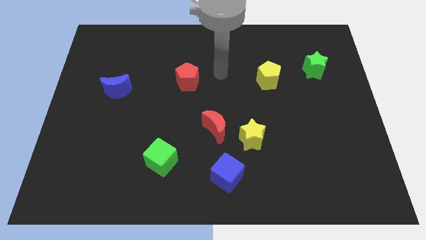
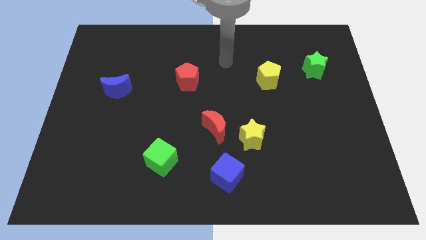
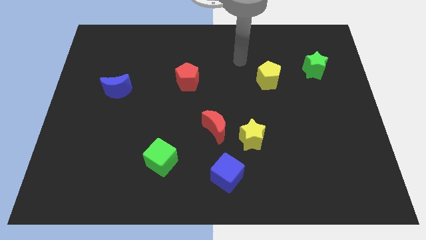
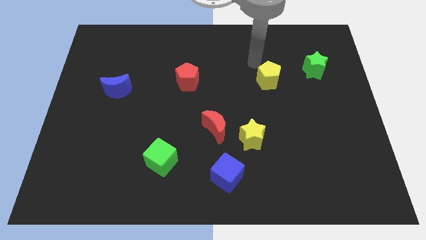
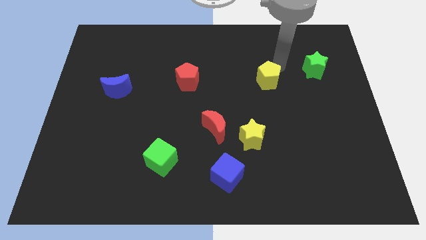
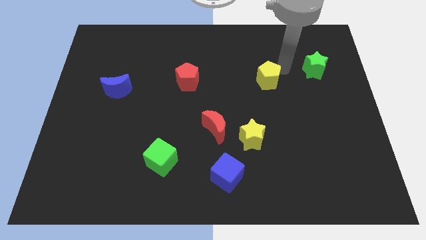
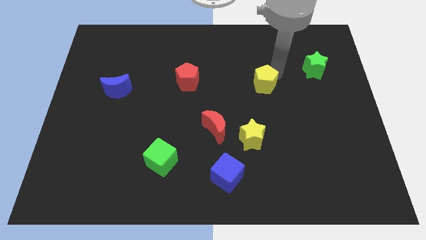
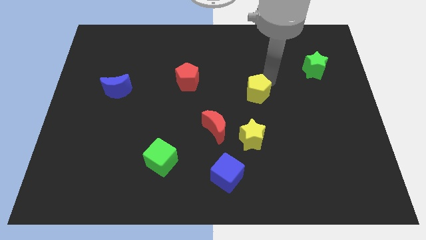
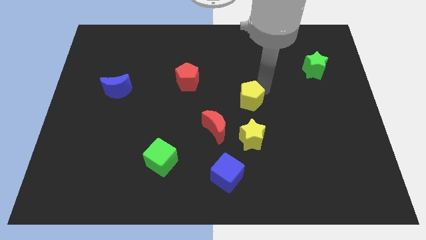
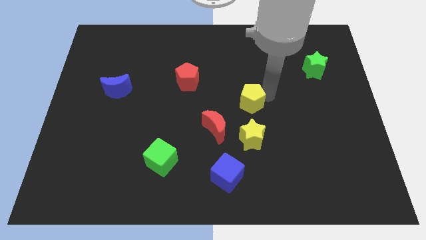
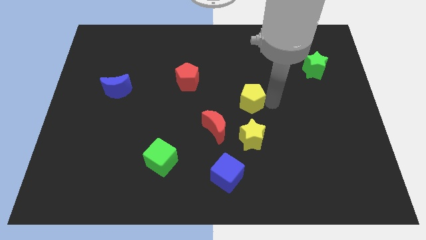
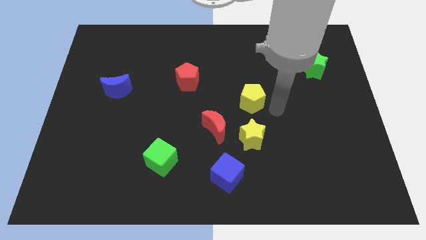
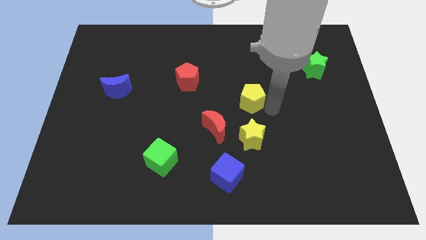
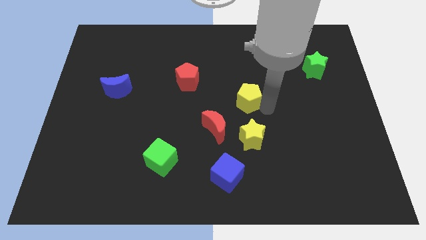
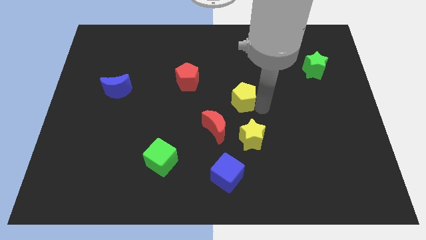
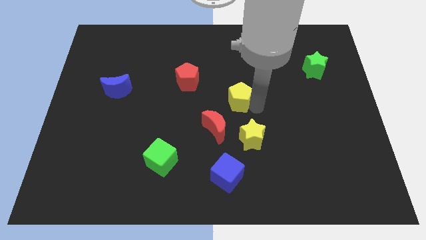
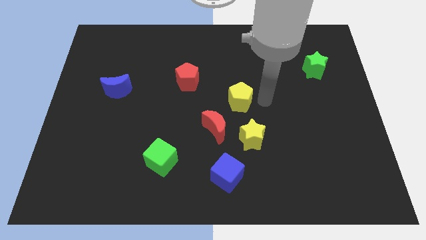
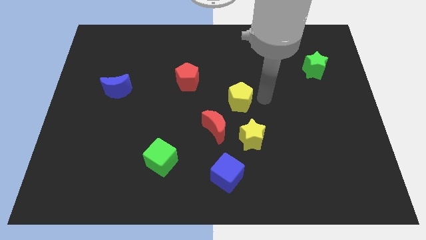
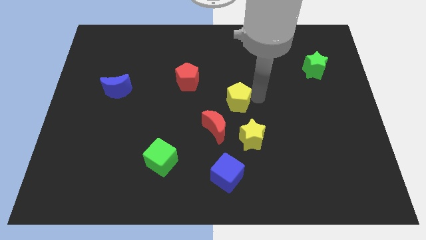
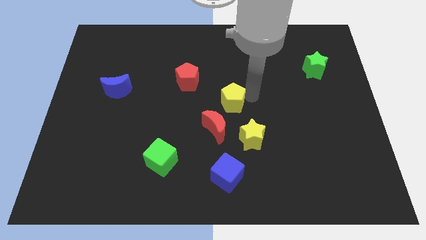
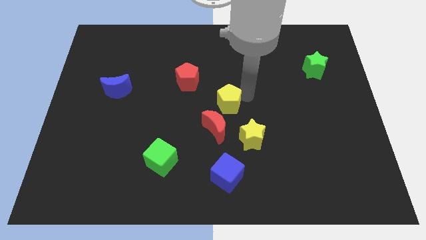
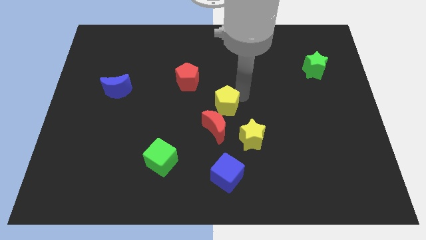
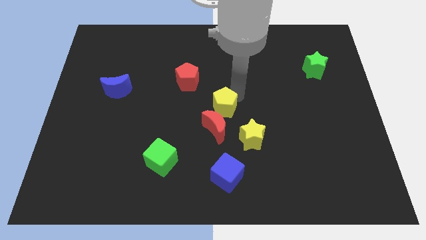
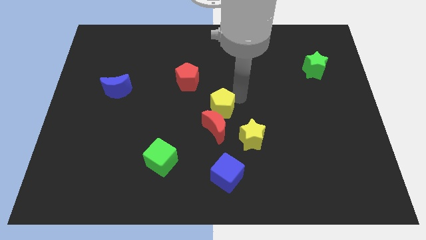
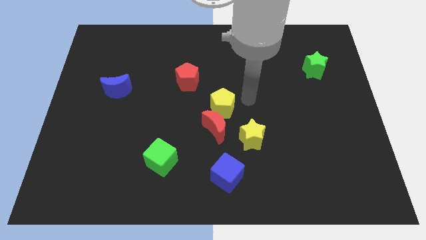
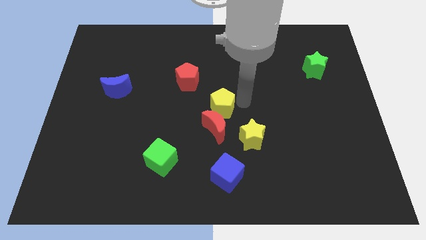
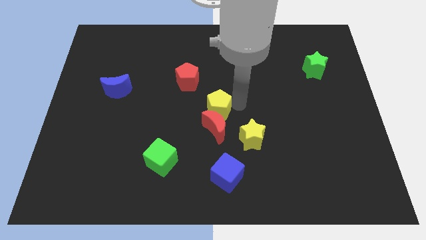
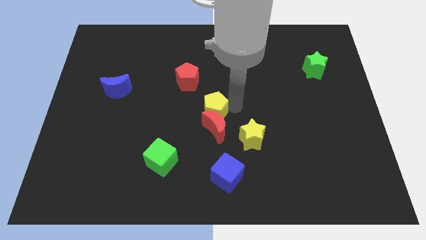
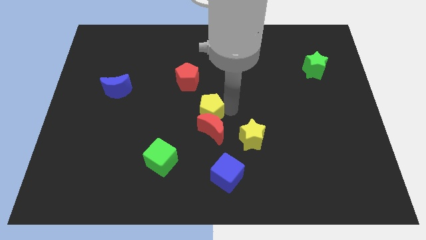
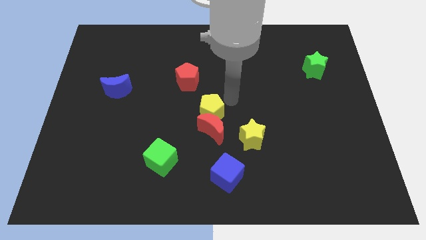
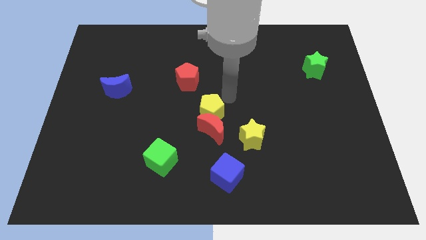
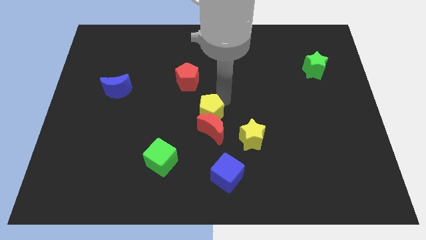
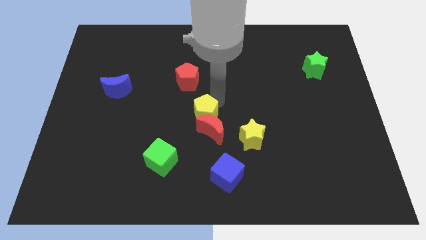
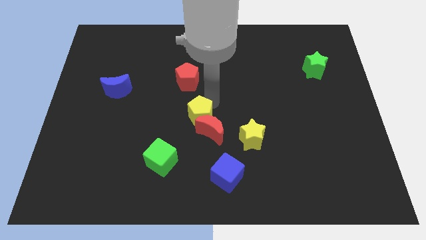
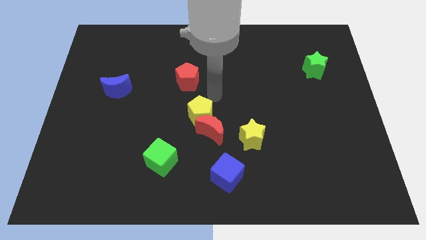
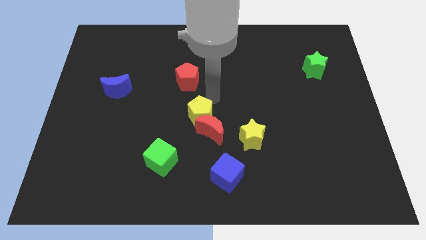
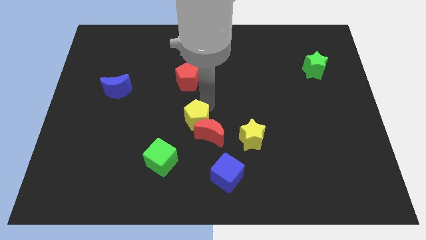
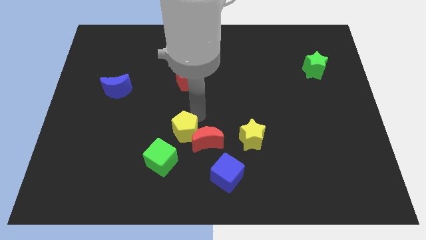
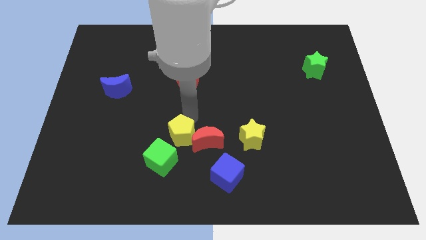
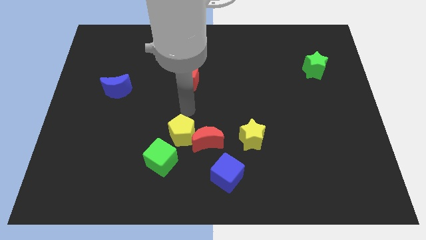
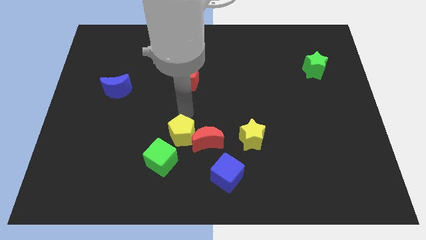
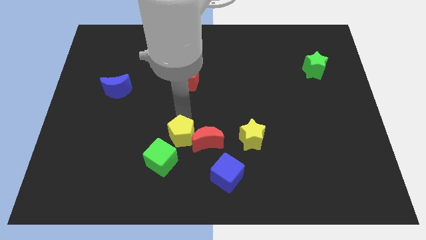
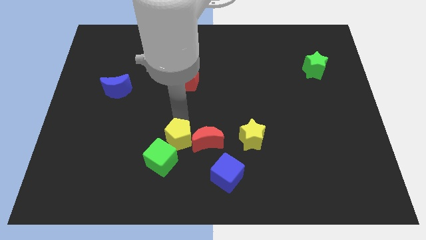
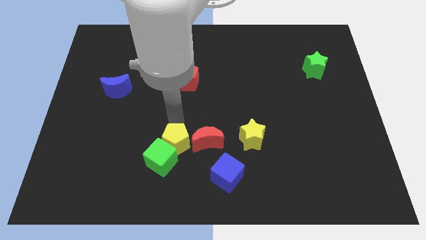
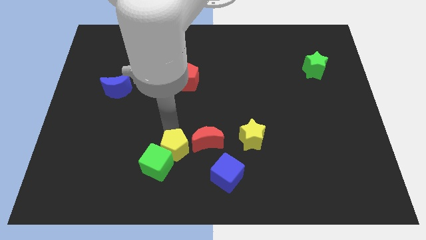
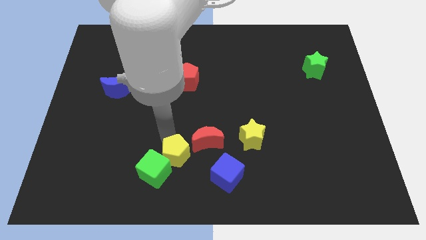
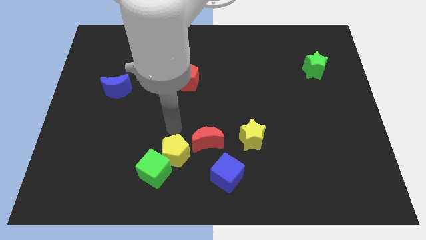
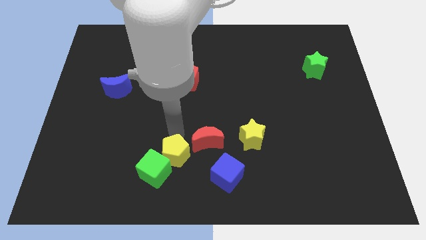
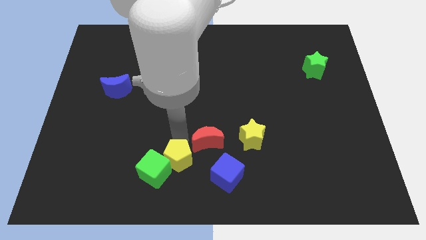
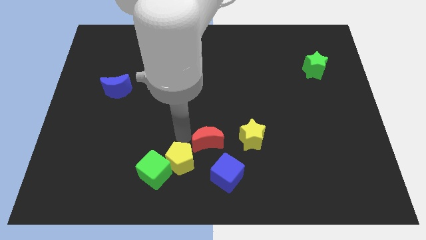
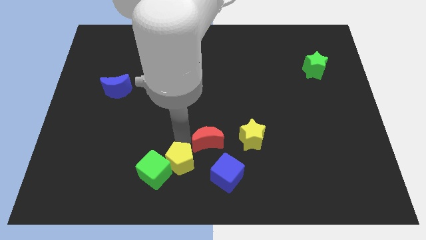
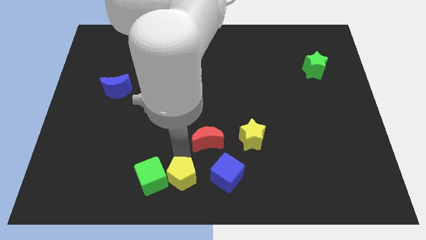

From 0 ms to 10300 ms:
slide the yellow pentagon to the bottom right side of the green cube

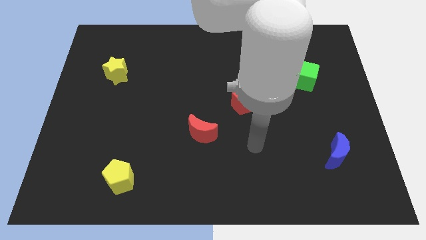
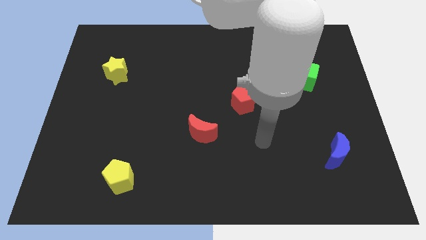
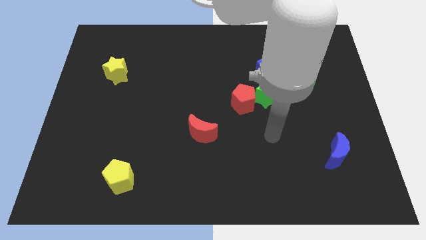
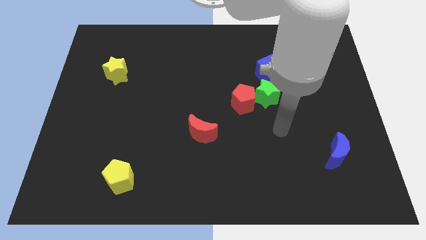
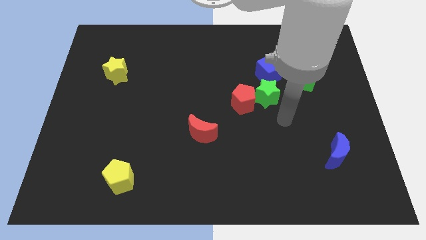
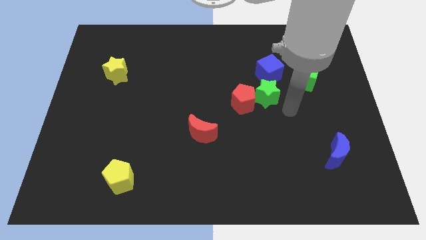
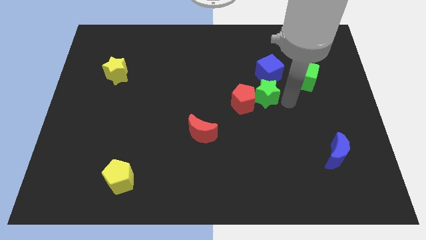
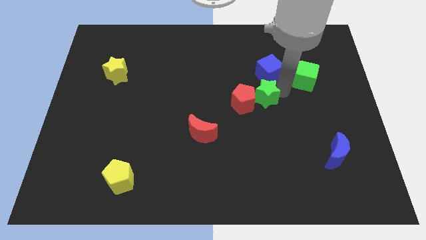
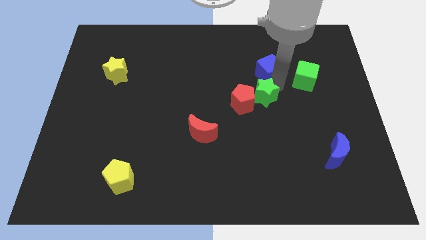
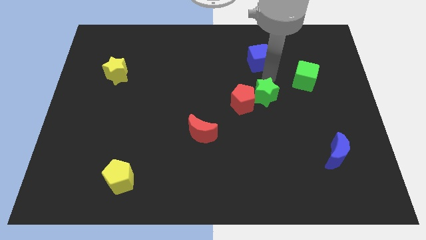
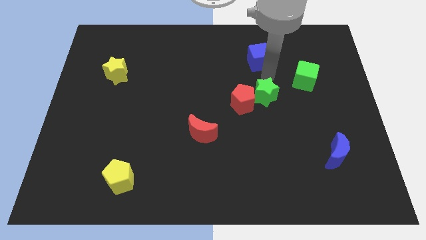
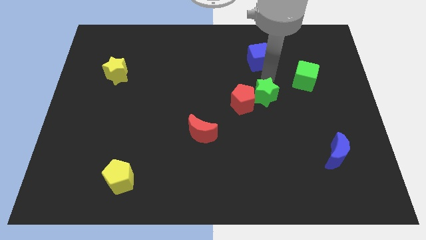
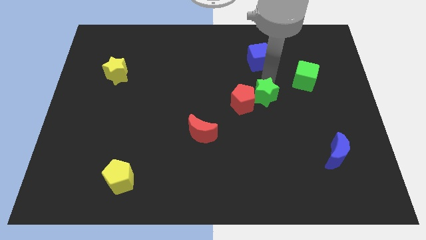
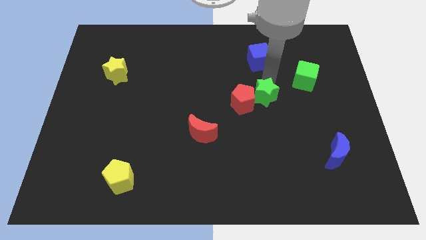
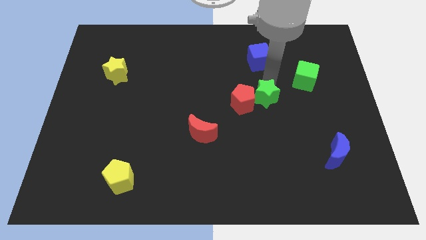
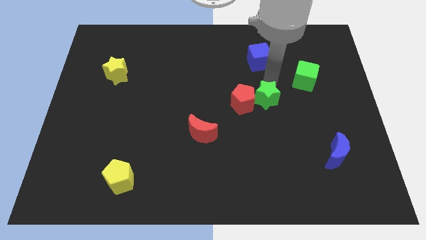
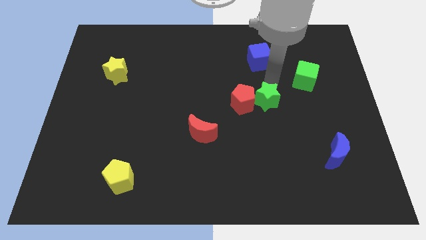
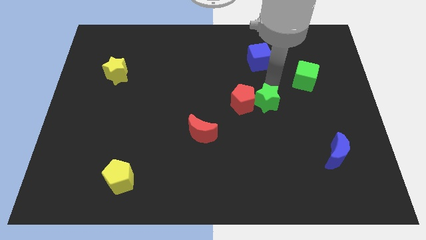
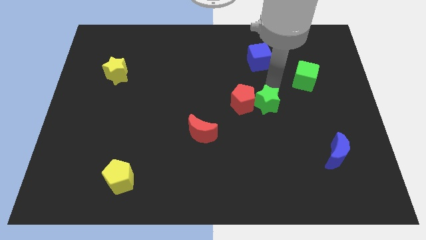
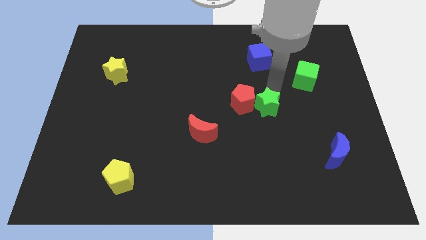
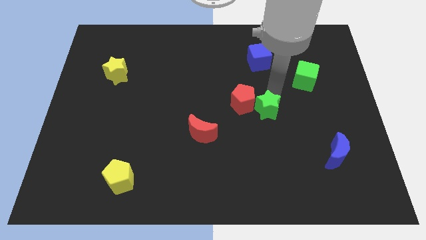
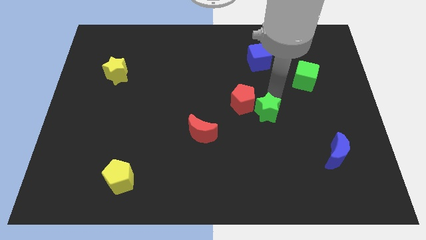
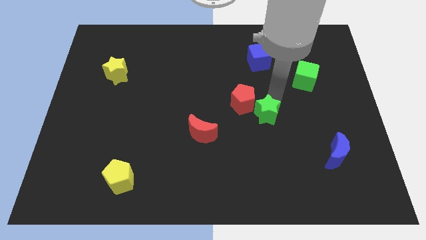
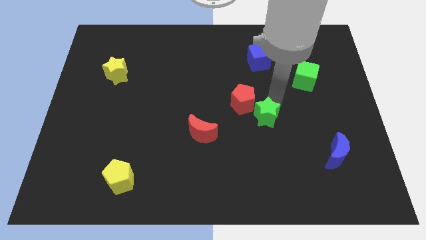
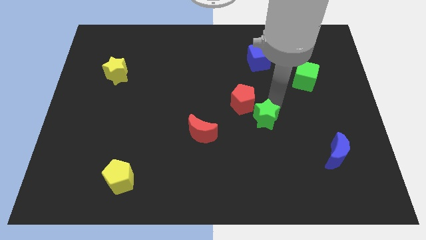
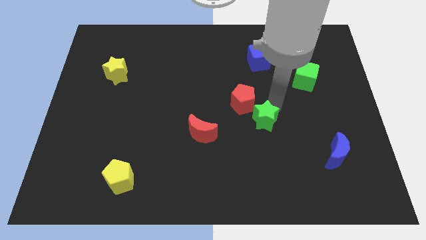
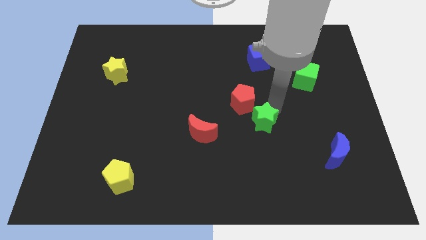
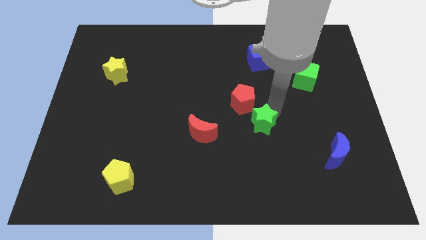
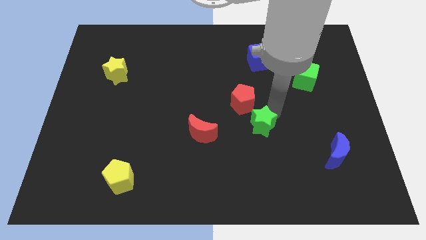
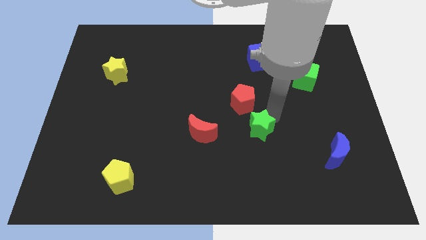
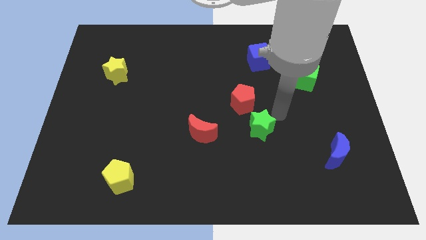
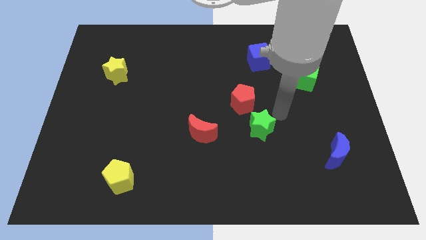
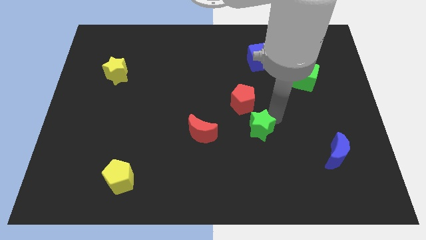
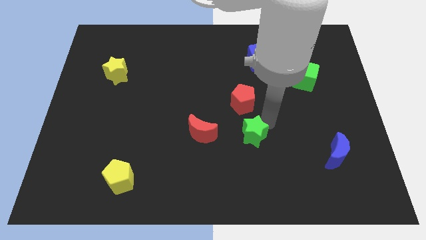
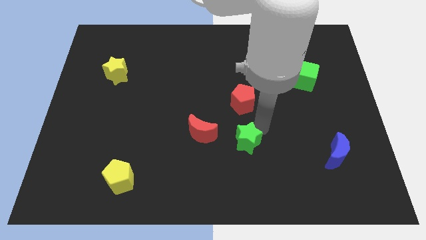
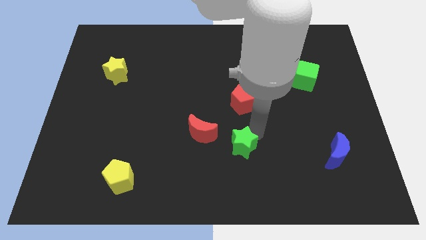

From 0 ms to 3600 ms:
slide the green star to the bottom right of the red moon
